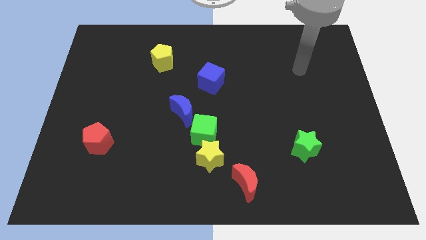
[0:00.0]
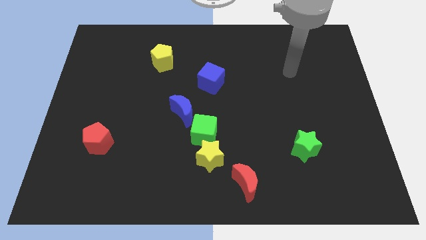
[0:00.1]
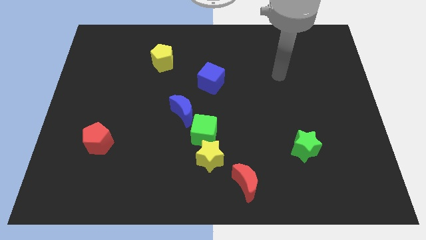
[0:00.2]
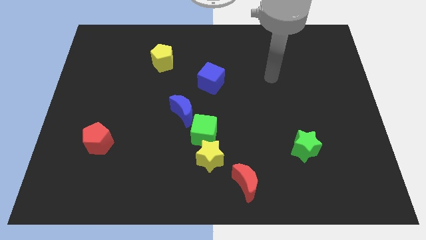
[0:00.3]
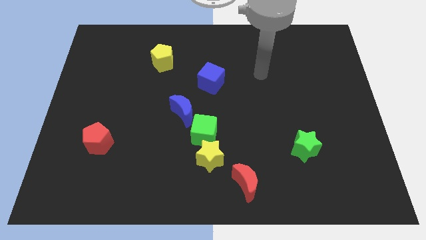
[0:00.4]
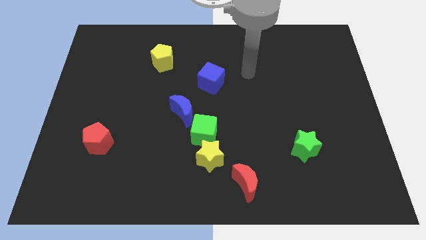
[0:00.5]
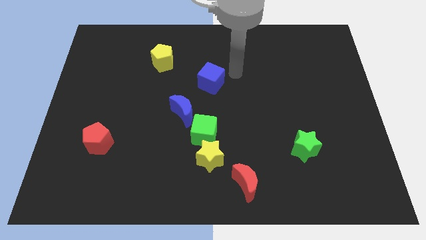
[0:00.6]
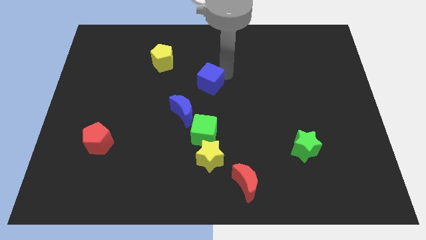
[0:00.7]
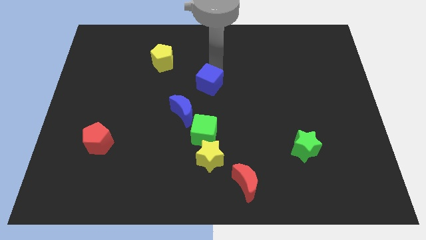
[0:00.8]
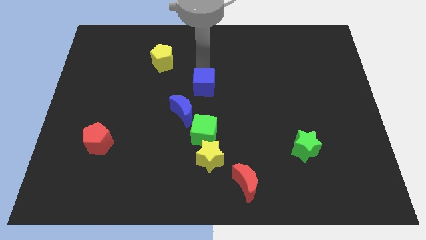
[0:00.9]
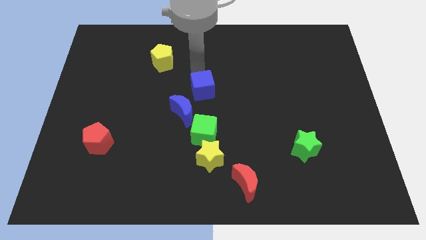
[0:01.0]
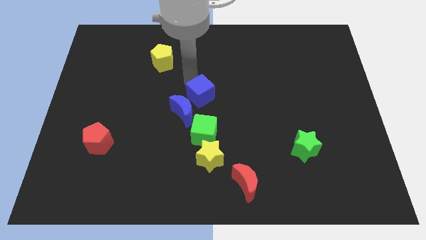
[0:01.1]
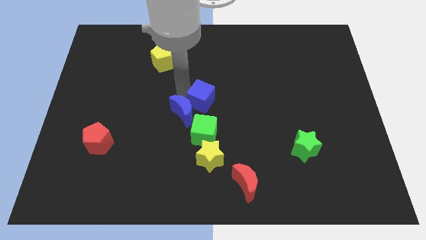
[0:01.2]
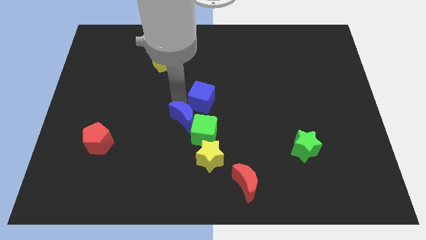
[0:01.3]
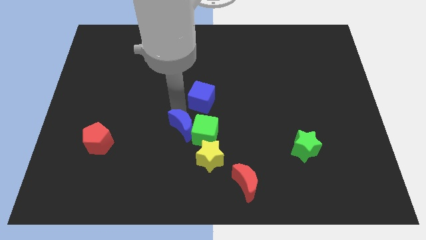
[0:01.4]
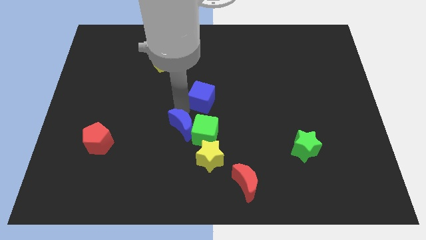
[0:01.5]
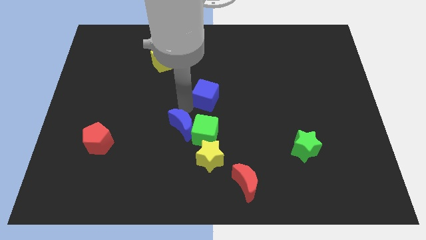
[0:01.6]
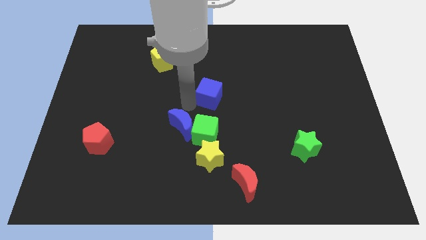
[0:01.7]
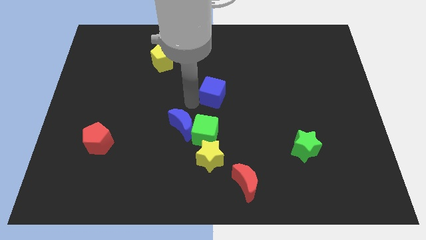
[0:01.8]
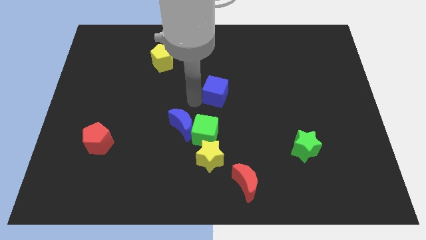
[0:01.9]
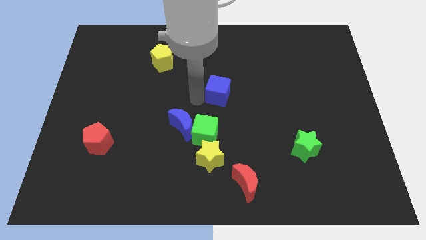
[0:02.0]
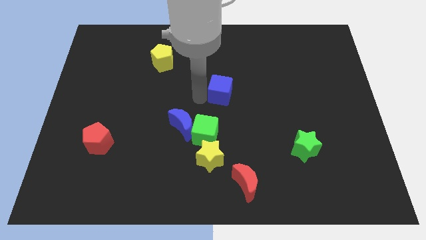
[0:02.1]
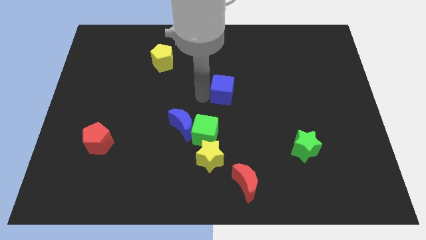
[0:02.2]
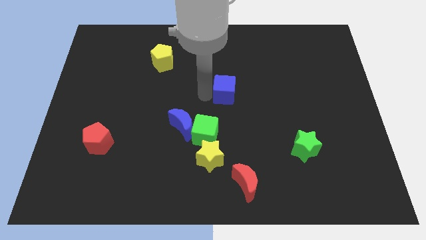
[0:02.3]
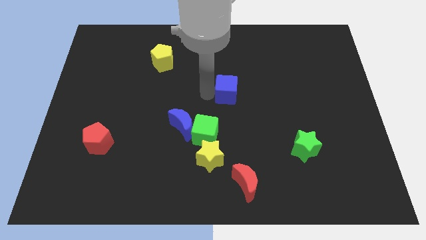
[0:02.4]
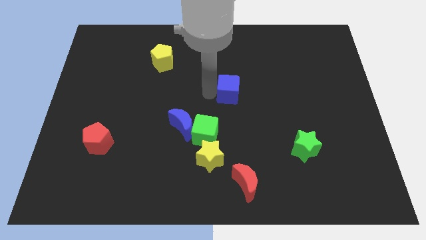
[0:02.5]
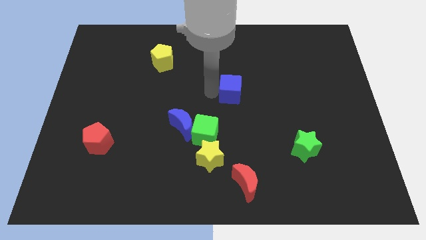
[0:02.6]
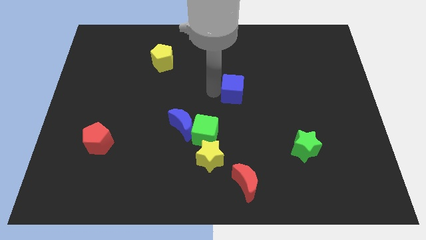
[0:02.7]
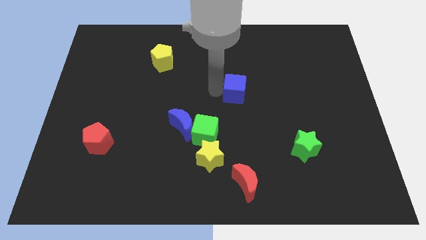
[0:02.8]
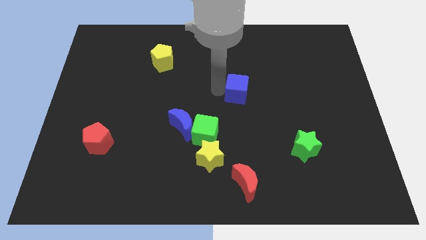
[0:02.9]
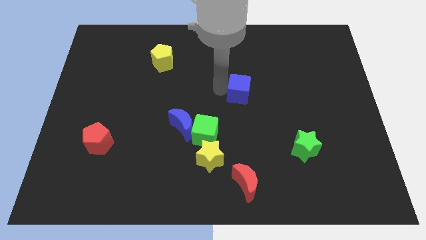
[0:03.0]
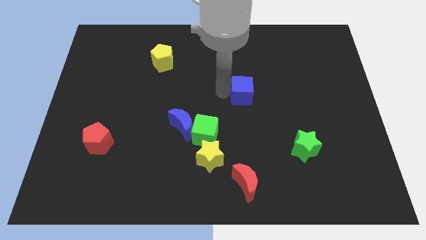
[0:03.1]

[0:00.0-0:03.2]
push the blue cube right a bit

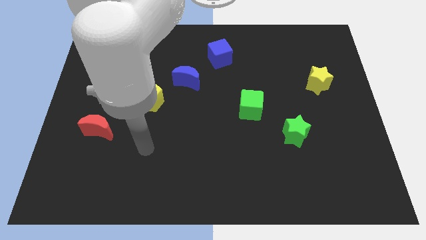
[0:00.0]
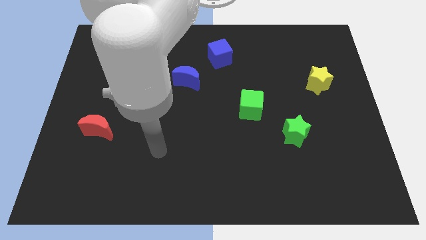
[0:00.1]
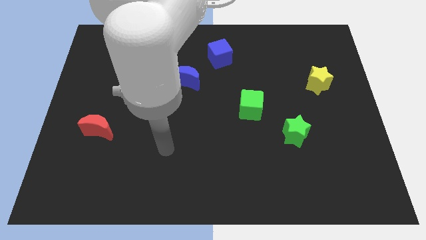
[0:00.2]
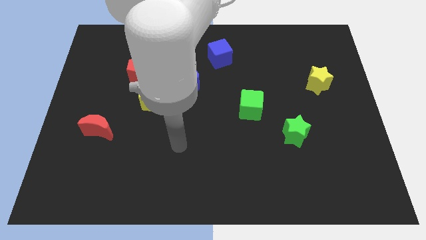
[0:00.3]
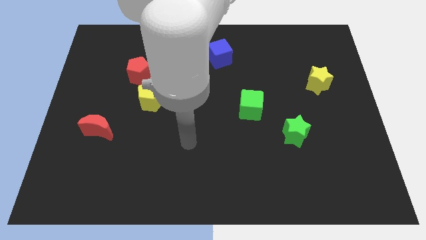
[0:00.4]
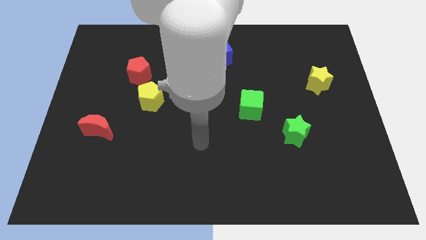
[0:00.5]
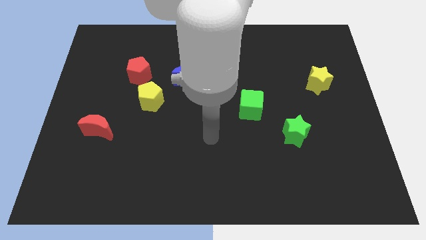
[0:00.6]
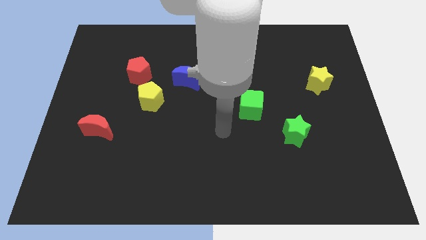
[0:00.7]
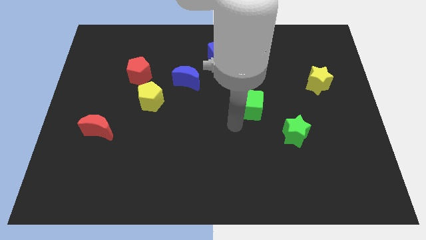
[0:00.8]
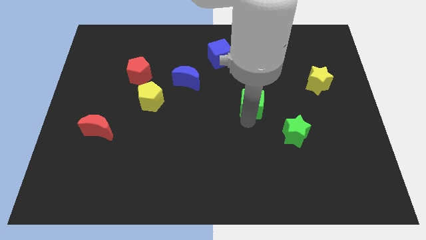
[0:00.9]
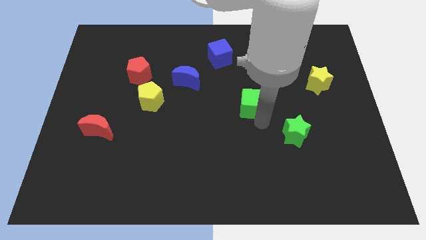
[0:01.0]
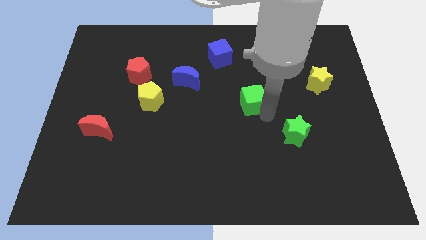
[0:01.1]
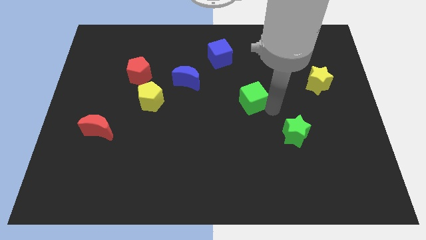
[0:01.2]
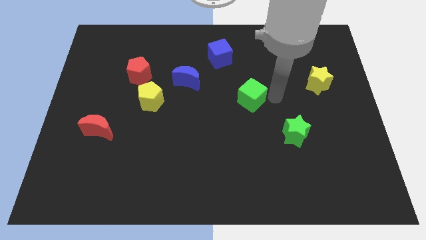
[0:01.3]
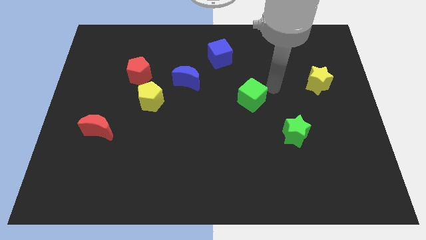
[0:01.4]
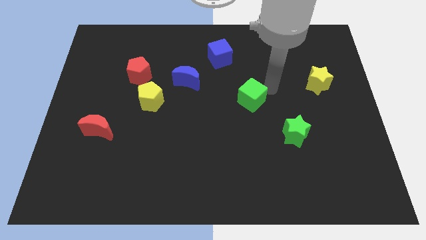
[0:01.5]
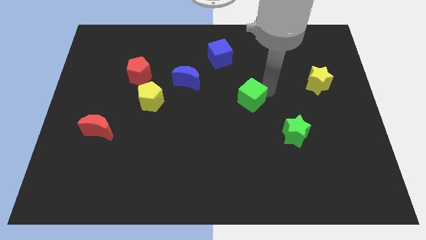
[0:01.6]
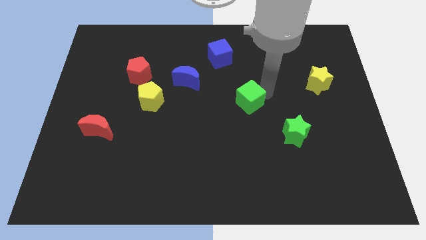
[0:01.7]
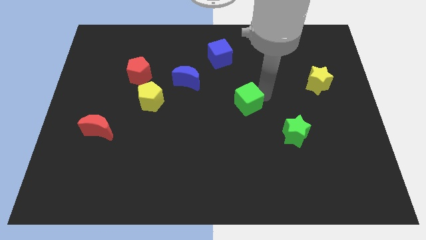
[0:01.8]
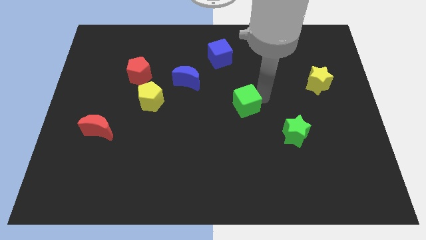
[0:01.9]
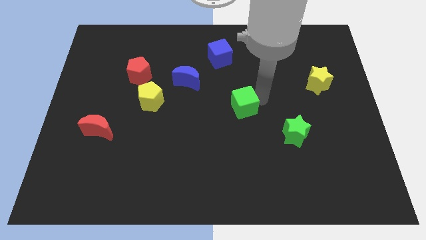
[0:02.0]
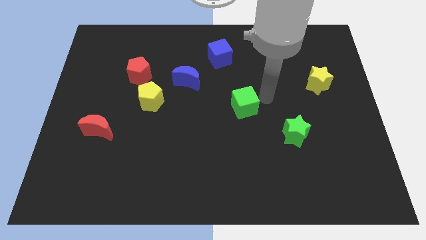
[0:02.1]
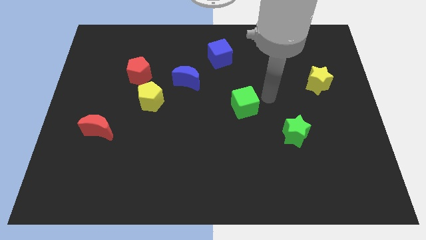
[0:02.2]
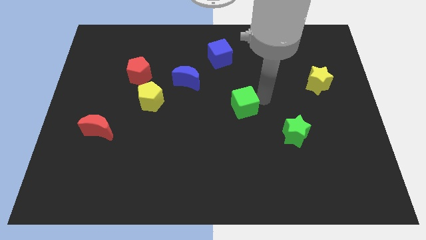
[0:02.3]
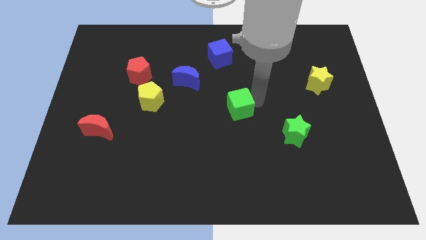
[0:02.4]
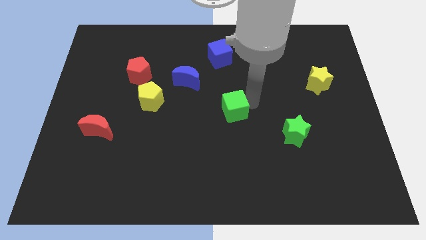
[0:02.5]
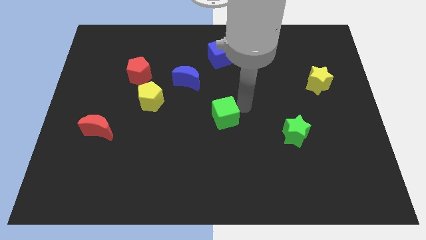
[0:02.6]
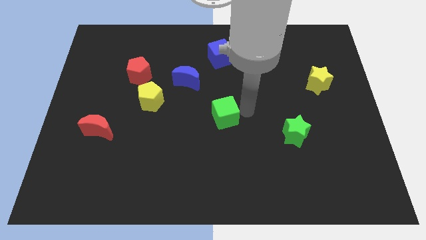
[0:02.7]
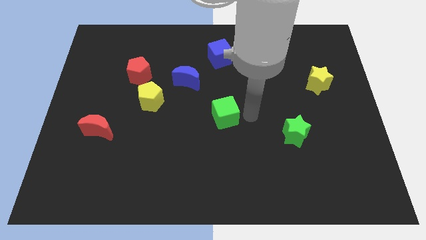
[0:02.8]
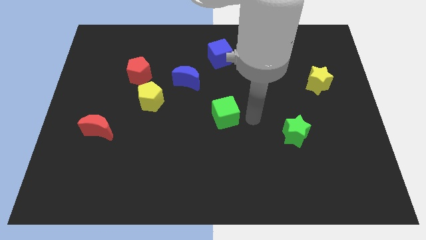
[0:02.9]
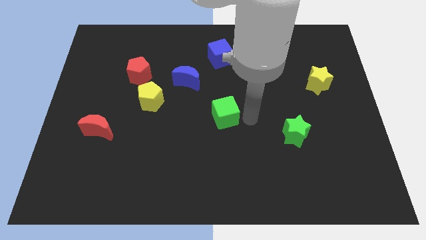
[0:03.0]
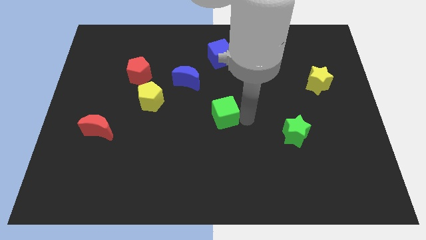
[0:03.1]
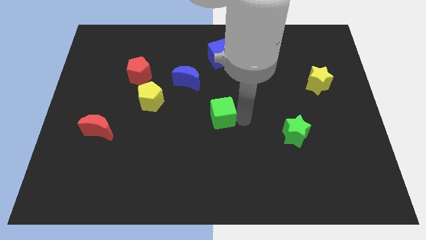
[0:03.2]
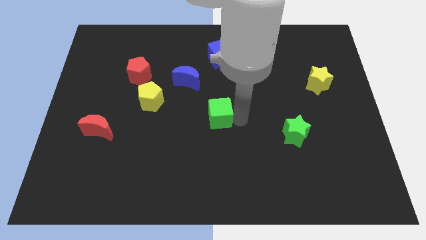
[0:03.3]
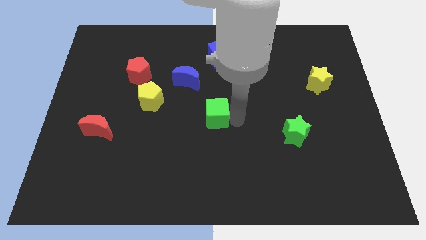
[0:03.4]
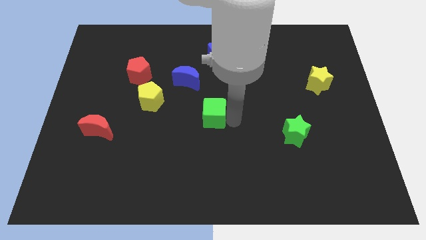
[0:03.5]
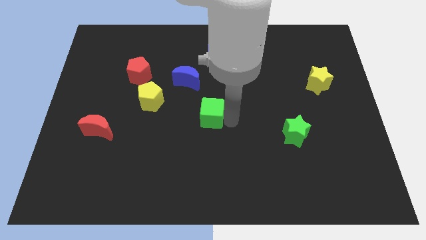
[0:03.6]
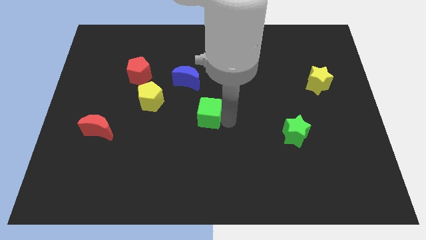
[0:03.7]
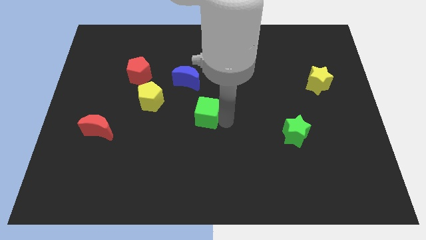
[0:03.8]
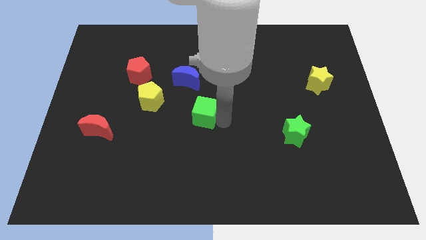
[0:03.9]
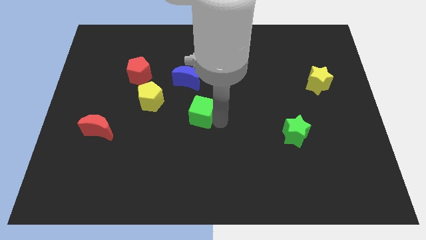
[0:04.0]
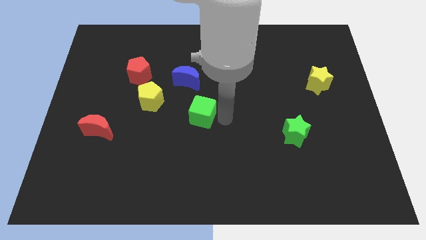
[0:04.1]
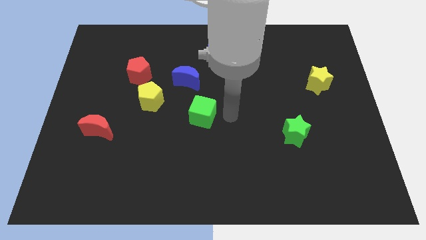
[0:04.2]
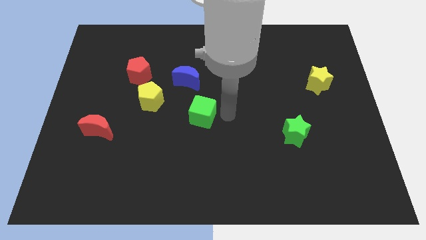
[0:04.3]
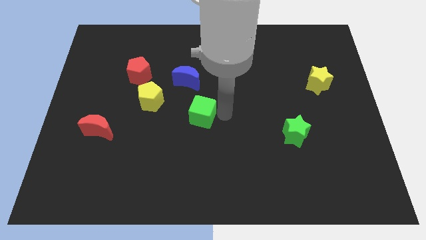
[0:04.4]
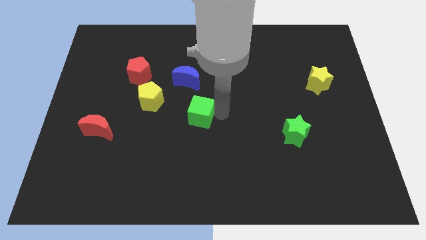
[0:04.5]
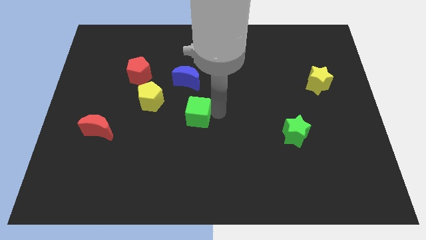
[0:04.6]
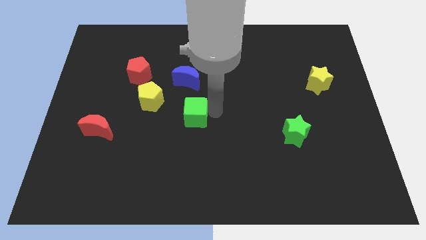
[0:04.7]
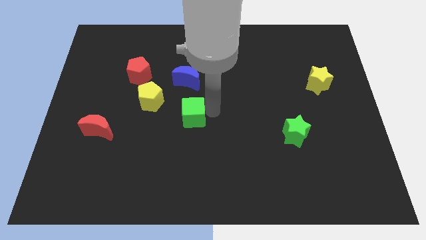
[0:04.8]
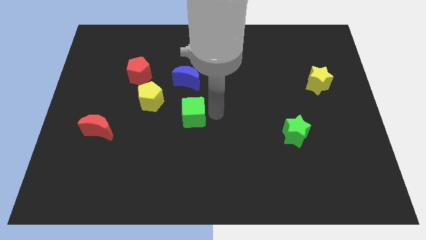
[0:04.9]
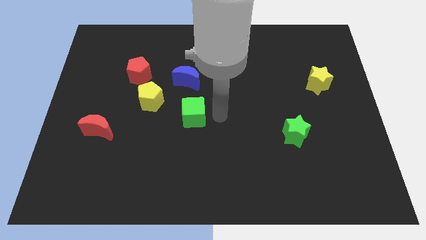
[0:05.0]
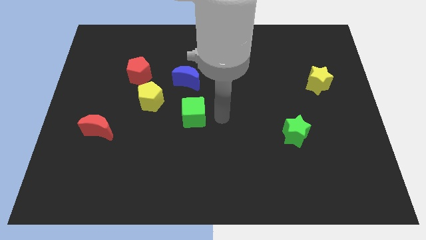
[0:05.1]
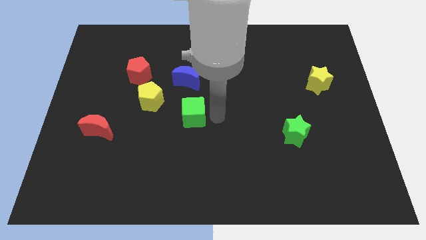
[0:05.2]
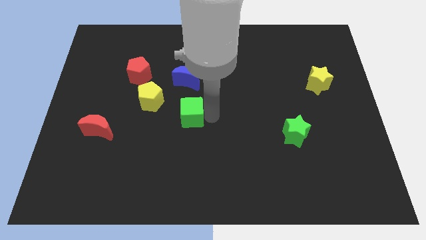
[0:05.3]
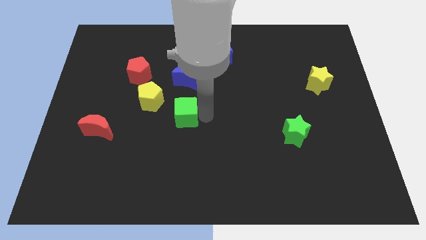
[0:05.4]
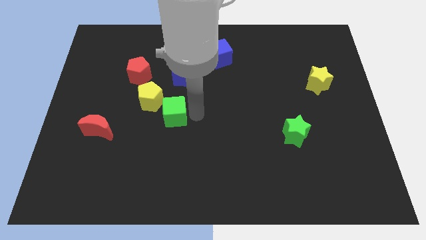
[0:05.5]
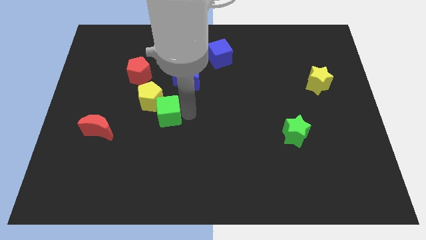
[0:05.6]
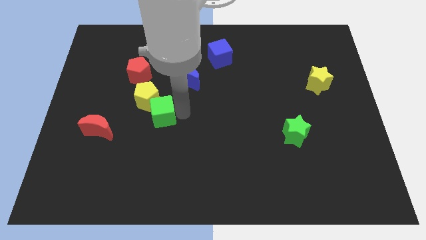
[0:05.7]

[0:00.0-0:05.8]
move the green cube to the left
